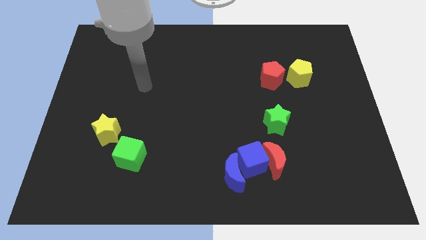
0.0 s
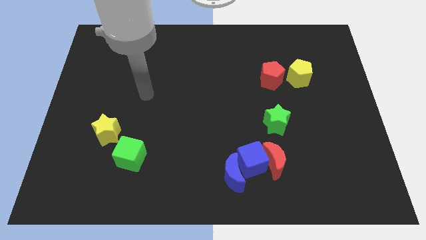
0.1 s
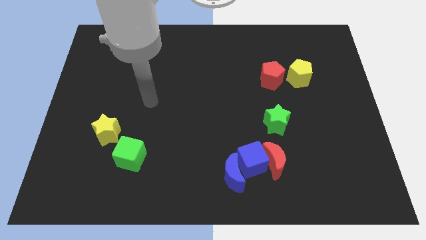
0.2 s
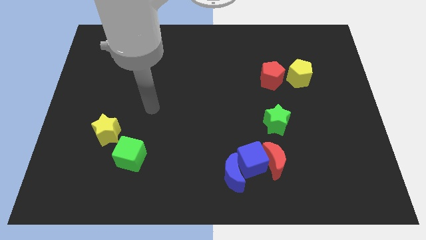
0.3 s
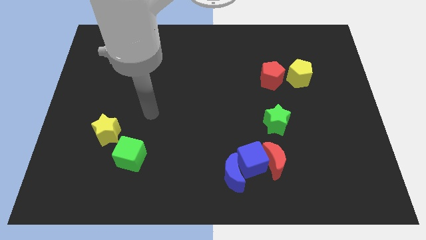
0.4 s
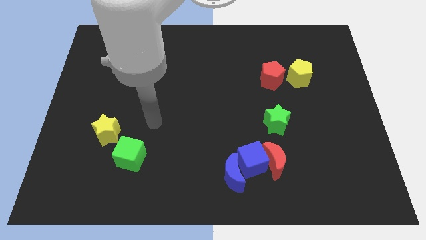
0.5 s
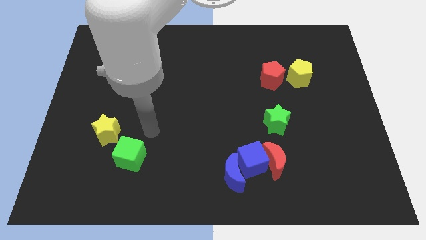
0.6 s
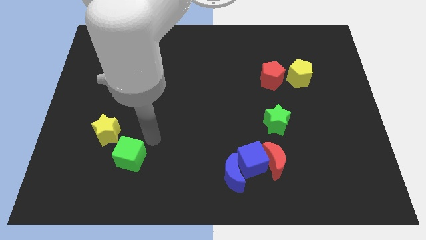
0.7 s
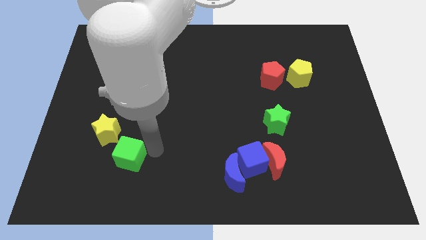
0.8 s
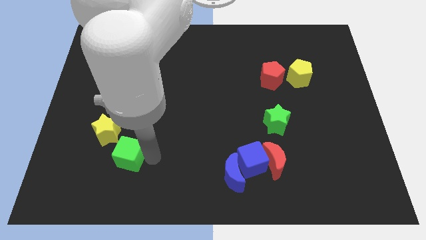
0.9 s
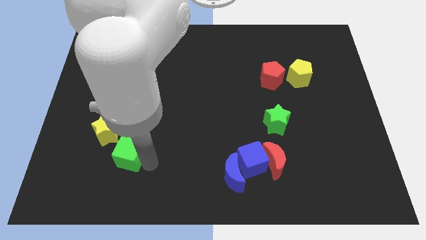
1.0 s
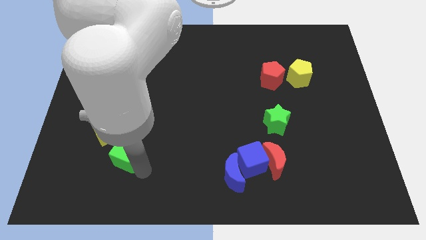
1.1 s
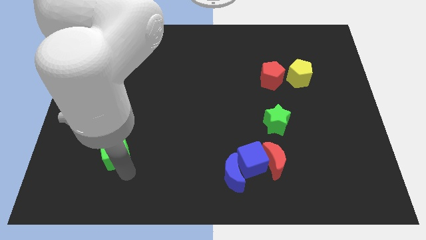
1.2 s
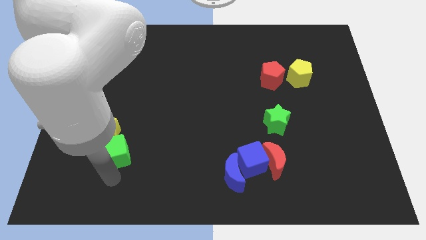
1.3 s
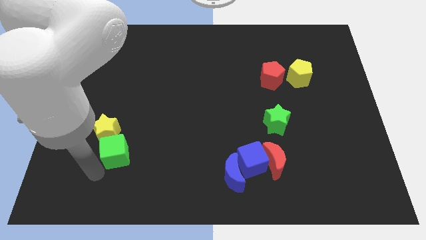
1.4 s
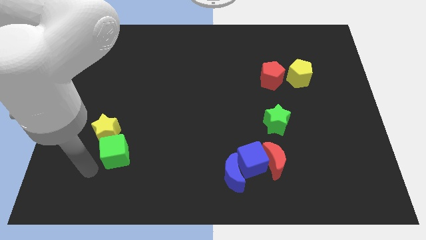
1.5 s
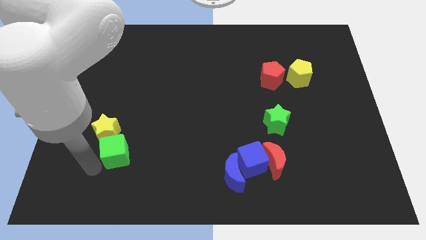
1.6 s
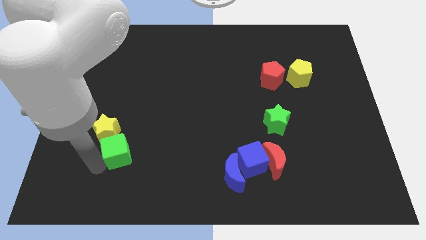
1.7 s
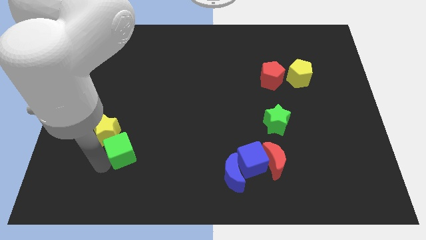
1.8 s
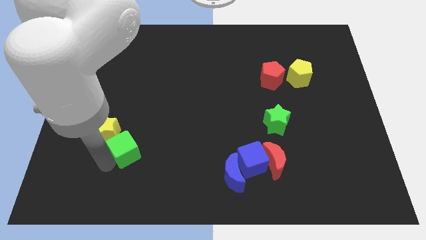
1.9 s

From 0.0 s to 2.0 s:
put the green cube just right of the yellow star

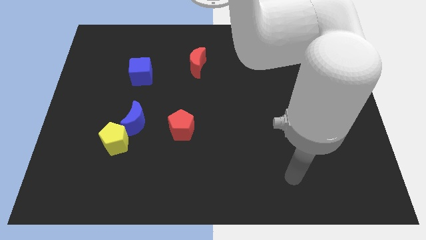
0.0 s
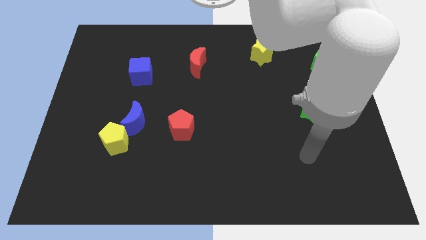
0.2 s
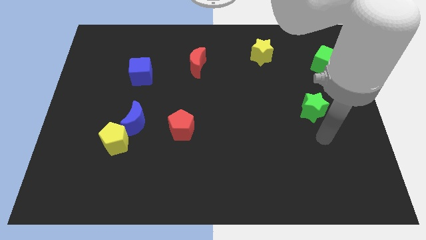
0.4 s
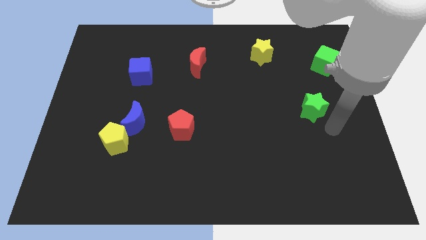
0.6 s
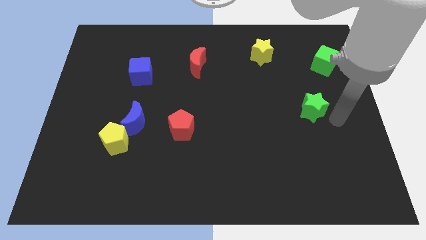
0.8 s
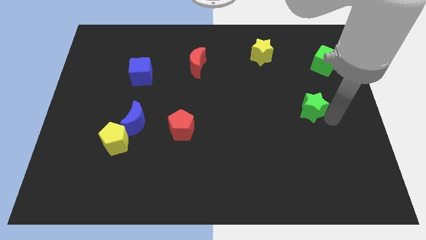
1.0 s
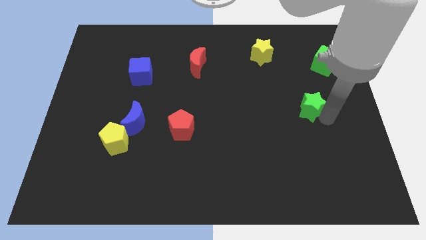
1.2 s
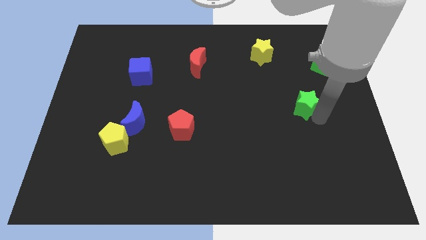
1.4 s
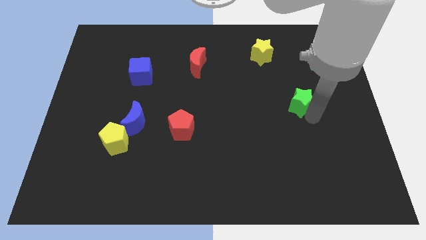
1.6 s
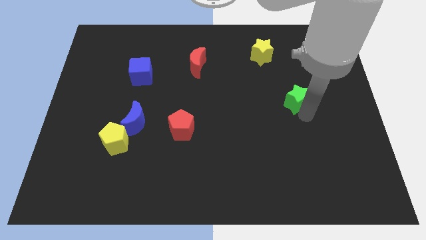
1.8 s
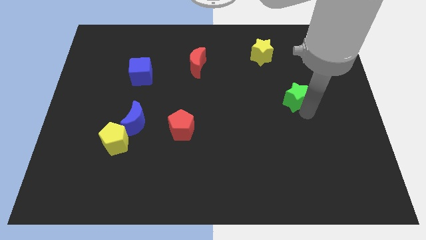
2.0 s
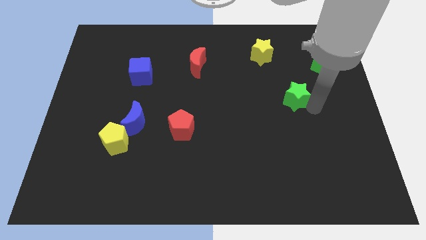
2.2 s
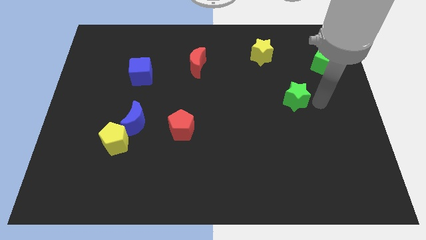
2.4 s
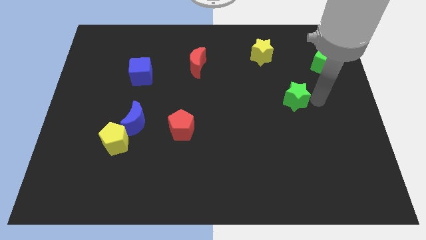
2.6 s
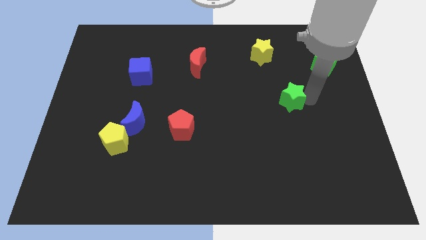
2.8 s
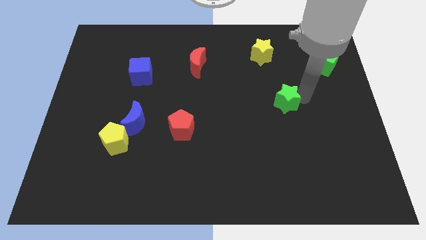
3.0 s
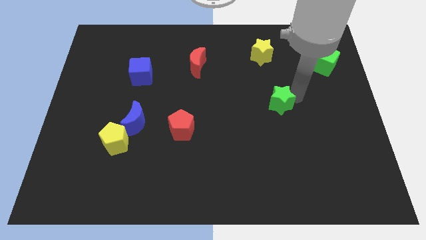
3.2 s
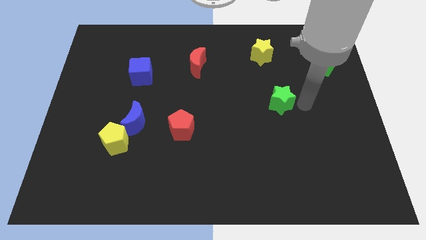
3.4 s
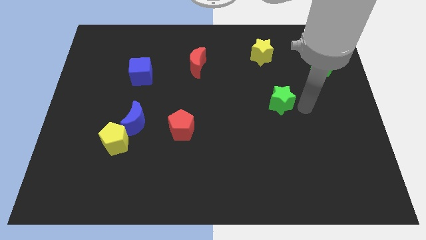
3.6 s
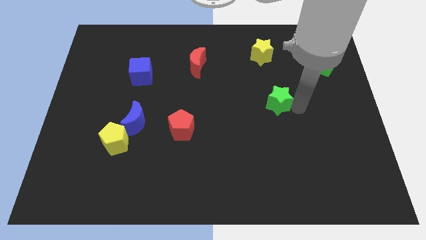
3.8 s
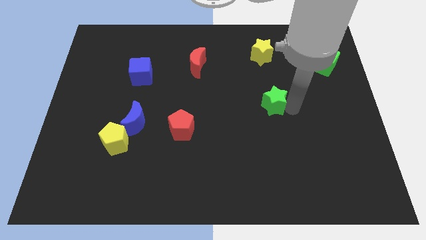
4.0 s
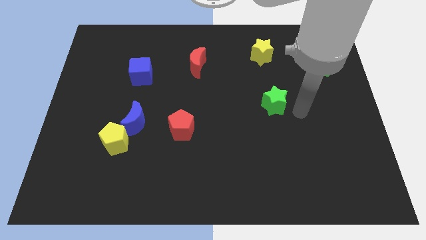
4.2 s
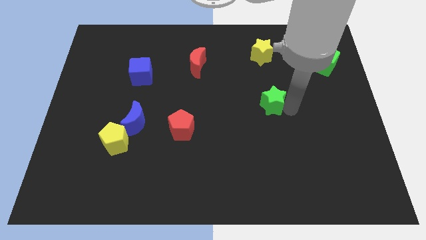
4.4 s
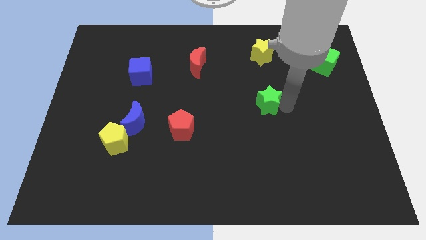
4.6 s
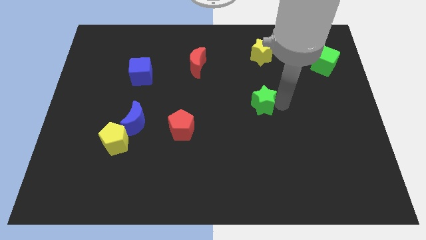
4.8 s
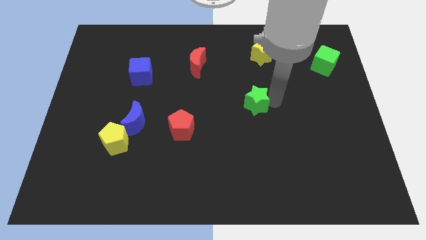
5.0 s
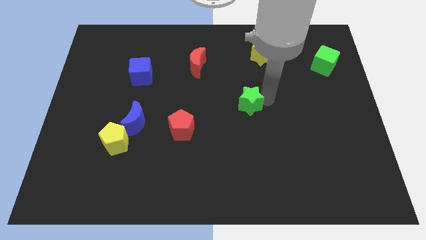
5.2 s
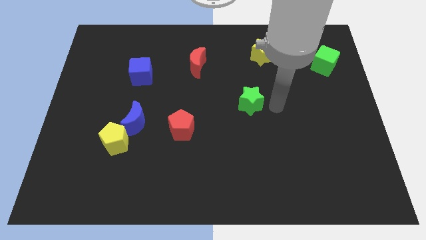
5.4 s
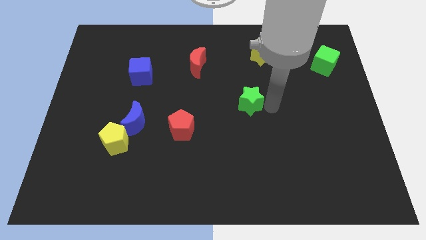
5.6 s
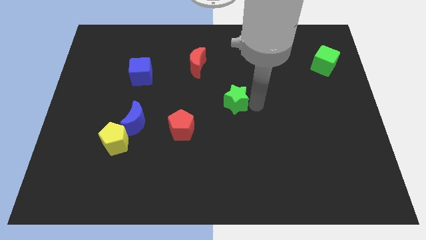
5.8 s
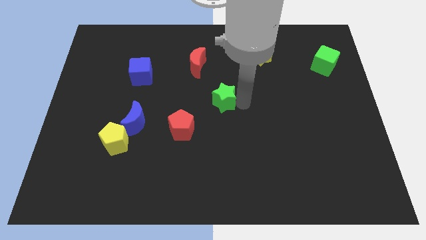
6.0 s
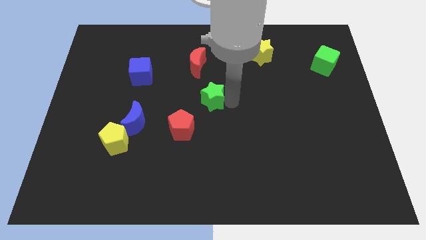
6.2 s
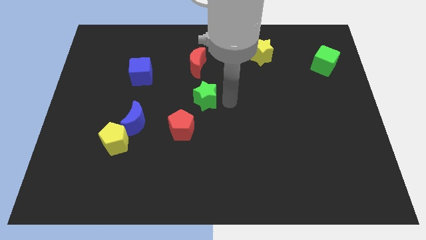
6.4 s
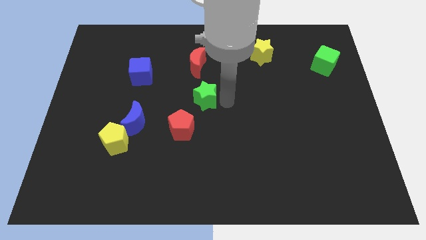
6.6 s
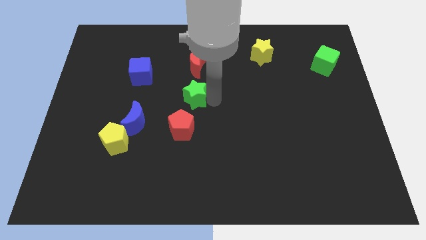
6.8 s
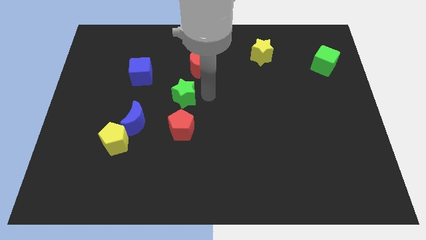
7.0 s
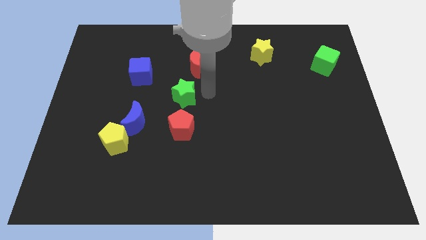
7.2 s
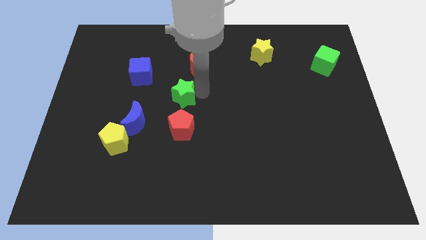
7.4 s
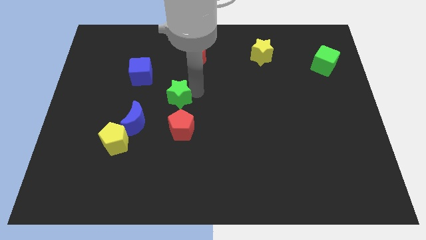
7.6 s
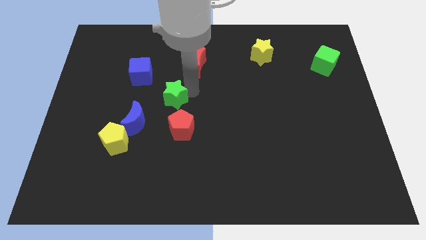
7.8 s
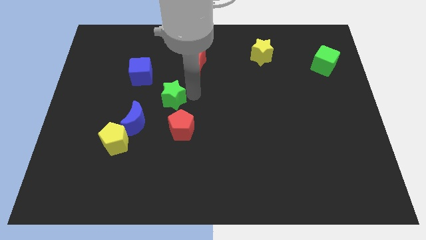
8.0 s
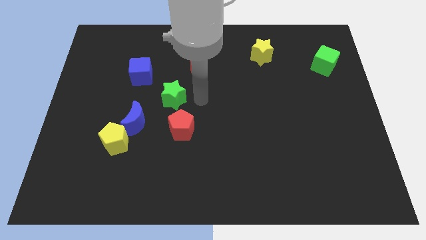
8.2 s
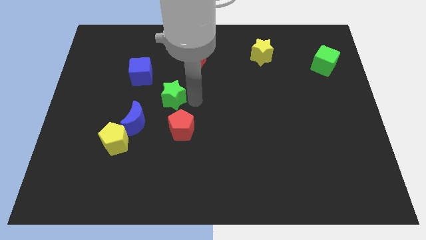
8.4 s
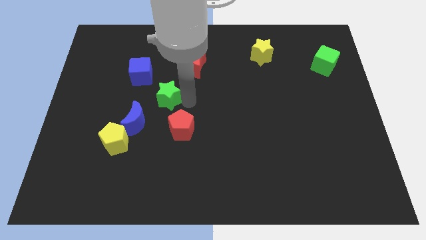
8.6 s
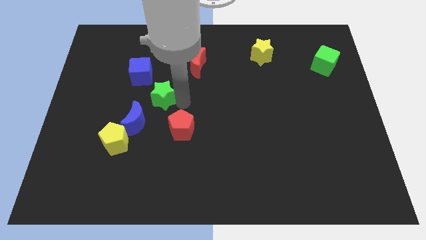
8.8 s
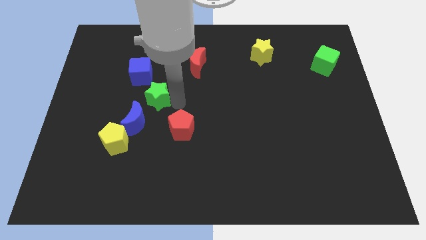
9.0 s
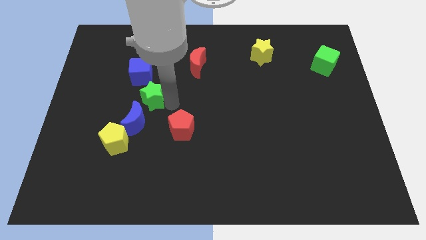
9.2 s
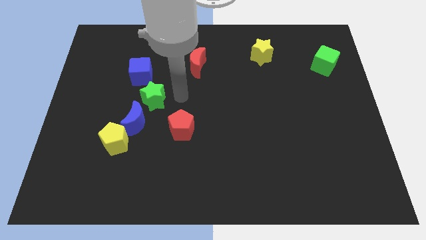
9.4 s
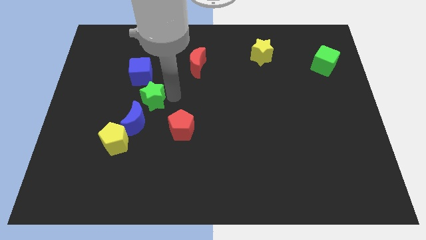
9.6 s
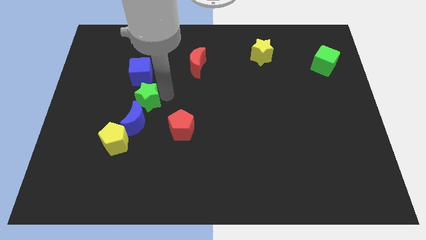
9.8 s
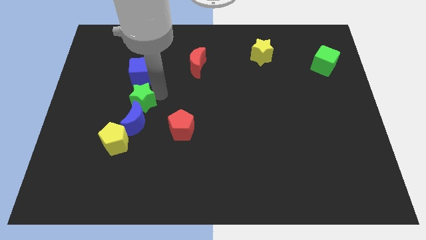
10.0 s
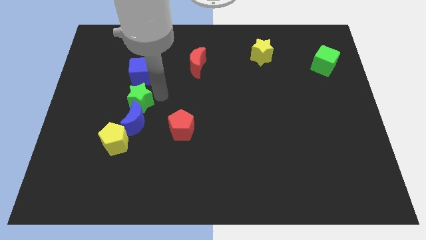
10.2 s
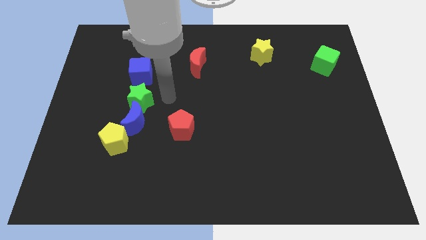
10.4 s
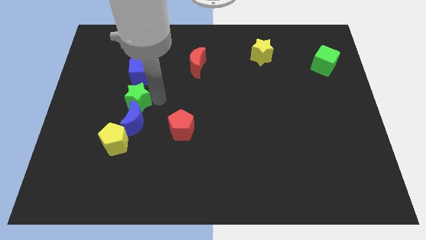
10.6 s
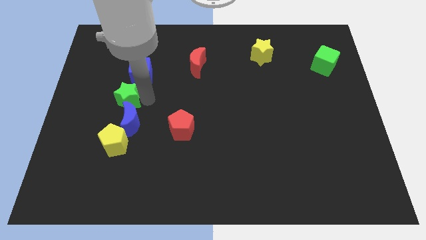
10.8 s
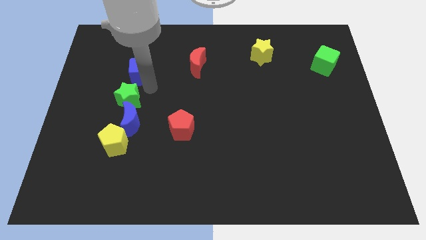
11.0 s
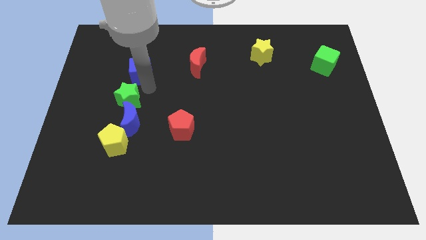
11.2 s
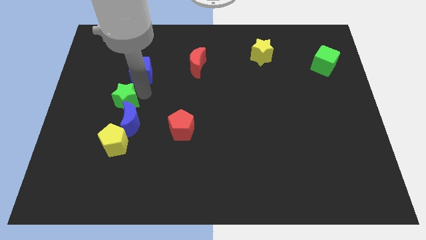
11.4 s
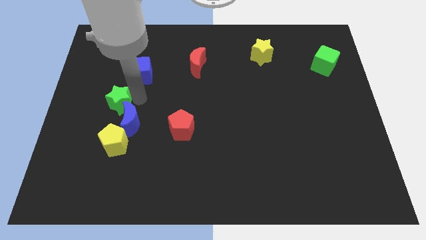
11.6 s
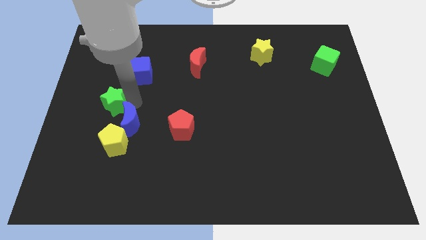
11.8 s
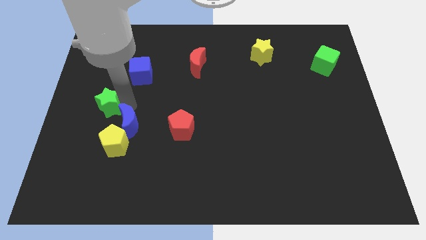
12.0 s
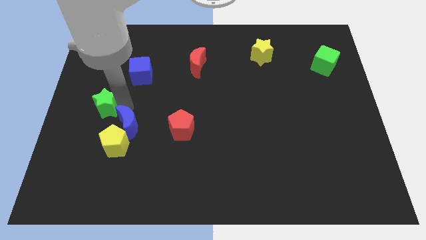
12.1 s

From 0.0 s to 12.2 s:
push the green star to the top left side of the yellow pentagon
